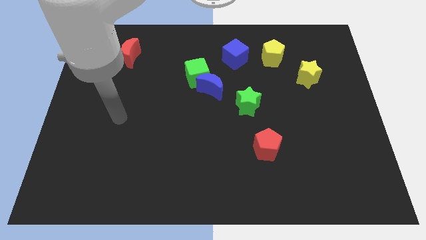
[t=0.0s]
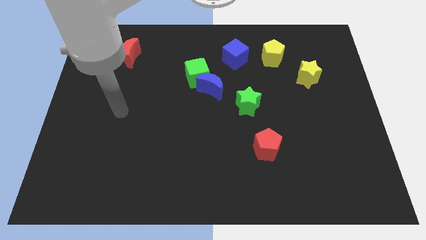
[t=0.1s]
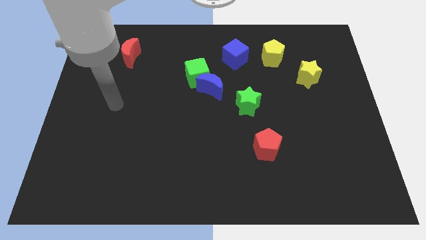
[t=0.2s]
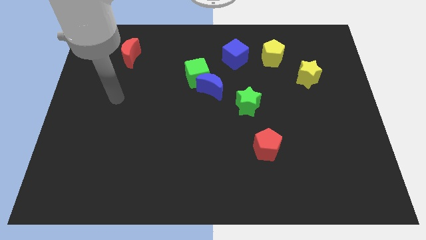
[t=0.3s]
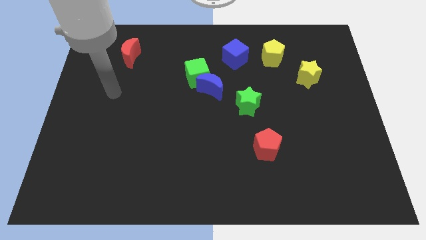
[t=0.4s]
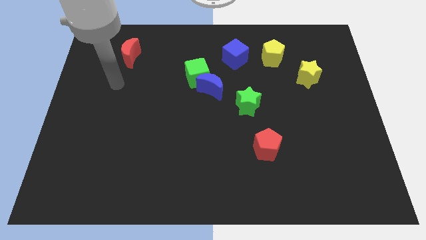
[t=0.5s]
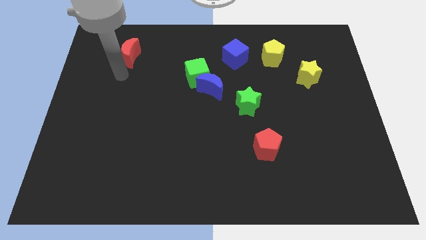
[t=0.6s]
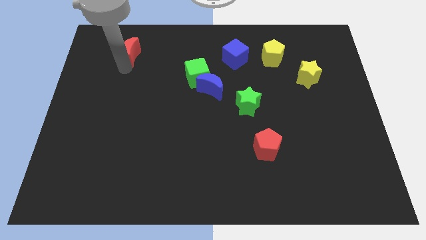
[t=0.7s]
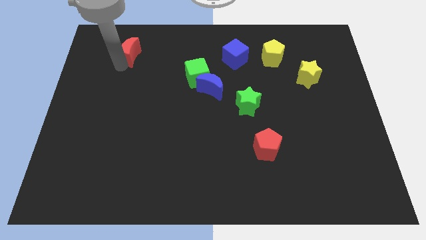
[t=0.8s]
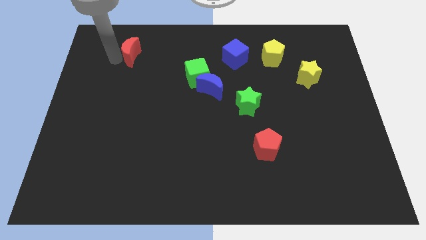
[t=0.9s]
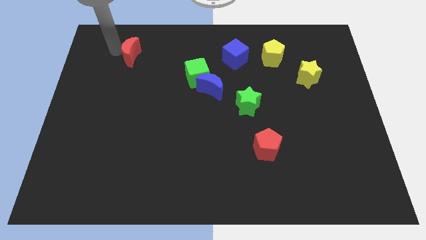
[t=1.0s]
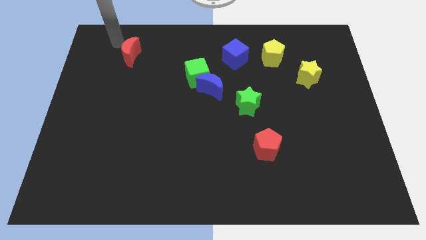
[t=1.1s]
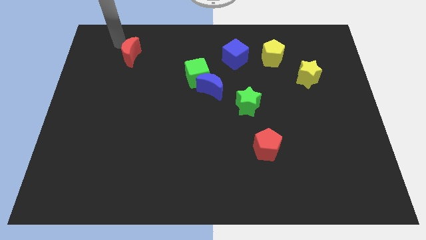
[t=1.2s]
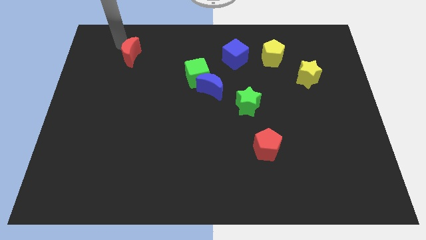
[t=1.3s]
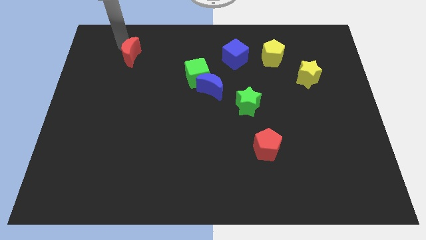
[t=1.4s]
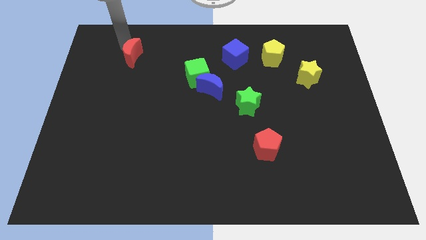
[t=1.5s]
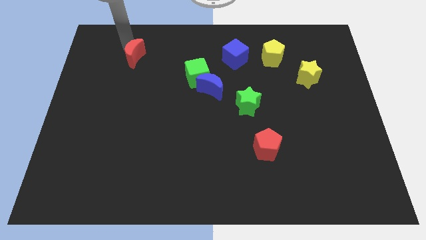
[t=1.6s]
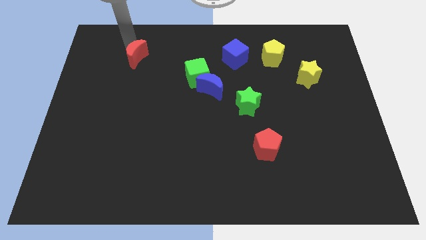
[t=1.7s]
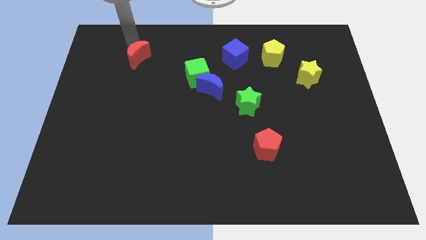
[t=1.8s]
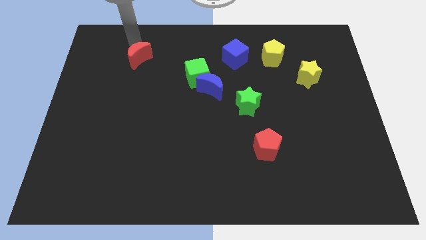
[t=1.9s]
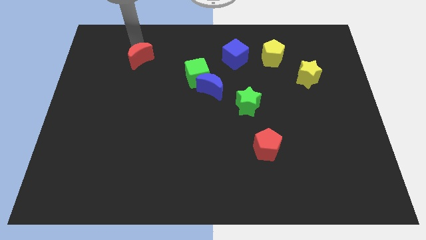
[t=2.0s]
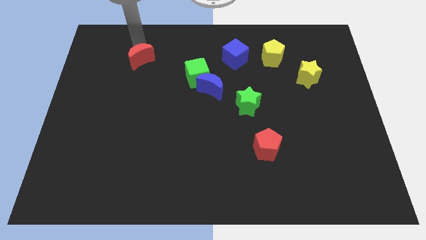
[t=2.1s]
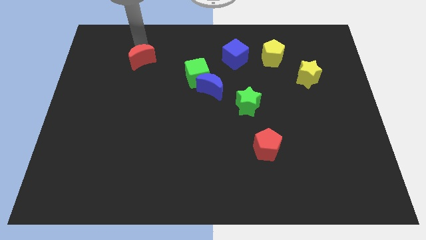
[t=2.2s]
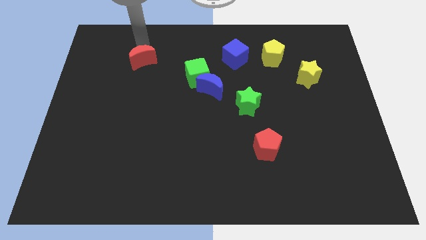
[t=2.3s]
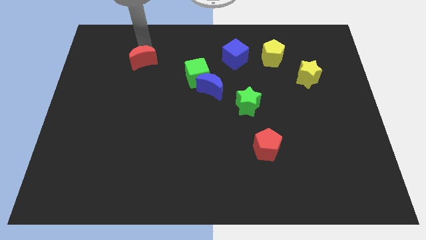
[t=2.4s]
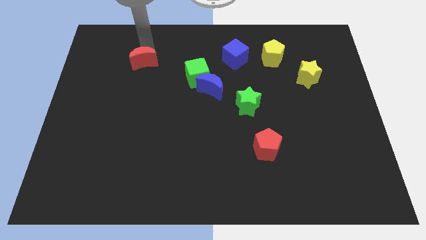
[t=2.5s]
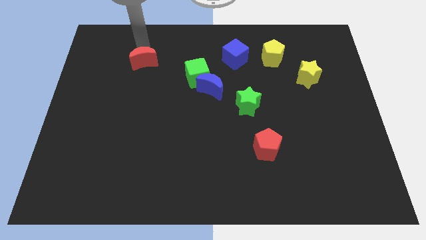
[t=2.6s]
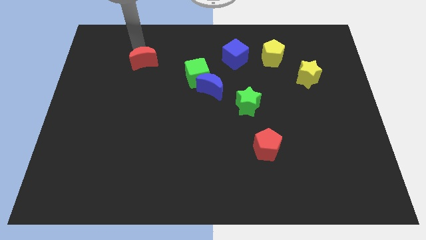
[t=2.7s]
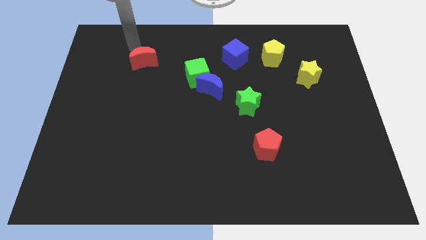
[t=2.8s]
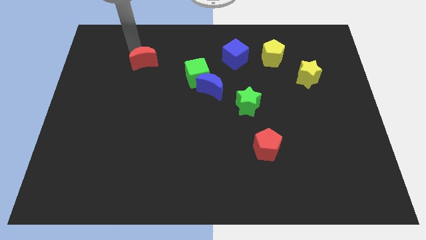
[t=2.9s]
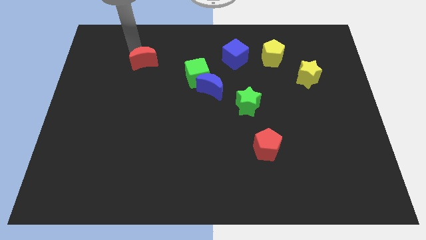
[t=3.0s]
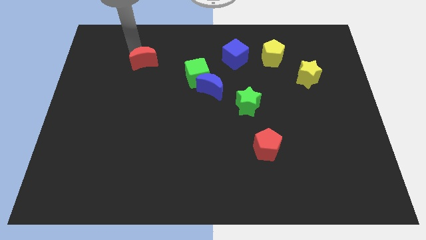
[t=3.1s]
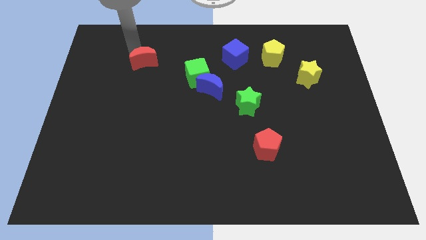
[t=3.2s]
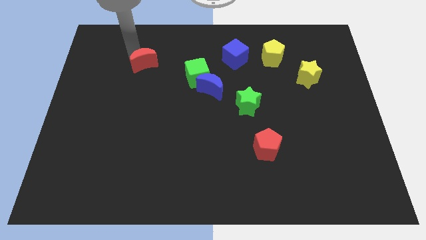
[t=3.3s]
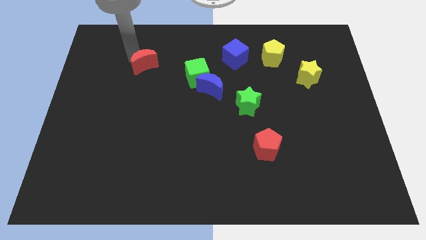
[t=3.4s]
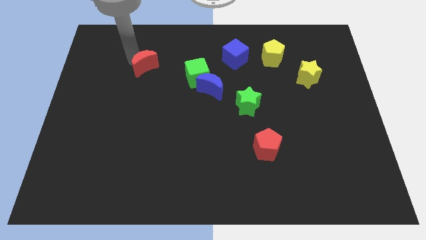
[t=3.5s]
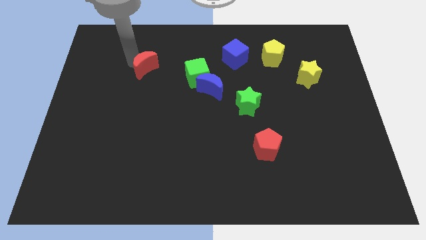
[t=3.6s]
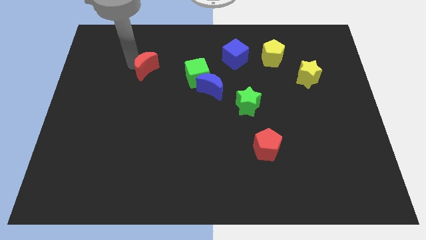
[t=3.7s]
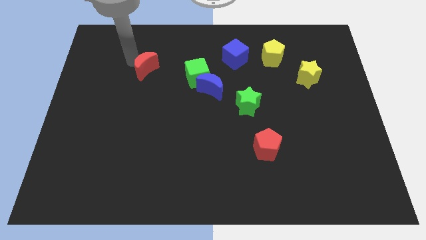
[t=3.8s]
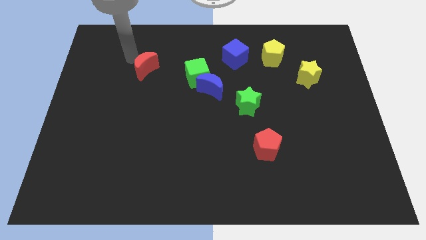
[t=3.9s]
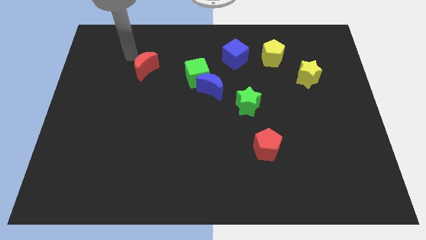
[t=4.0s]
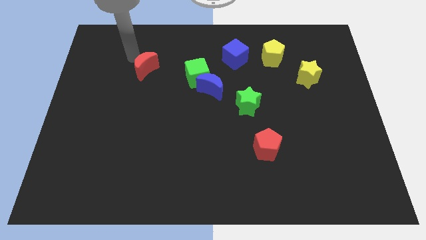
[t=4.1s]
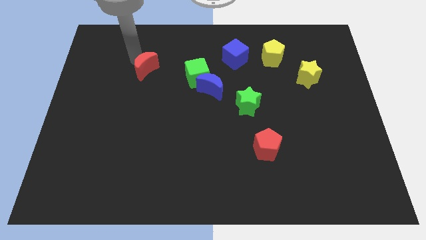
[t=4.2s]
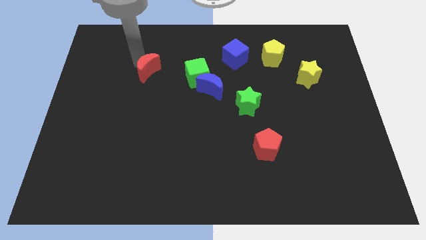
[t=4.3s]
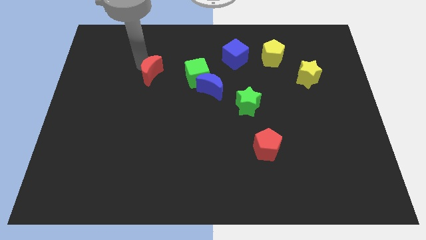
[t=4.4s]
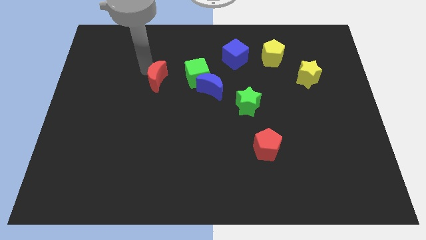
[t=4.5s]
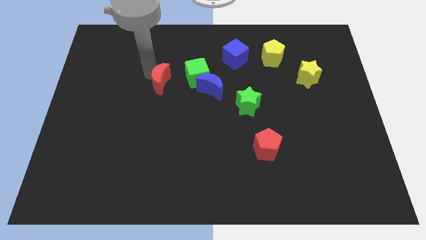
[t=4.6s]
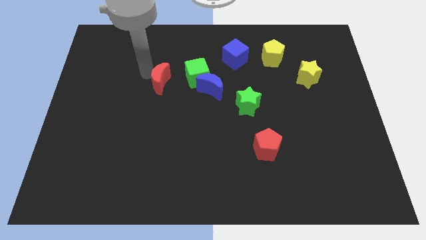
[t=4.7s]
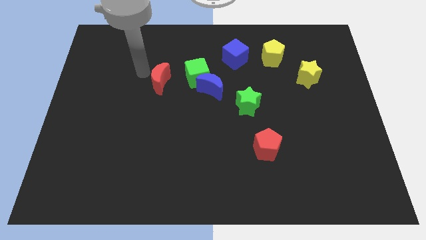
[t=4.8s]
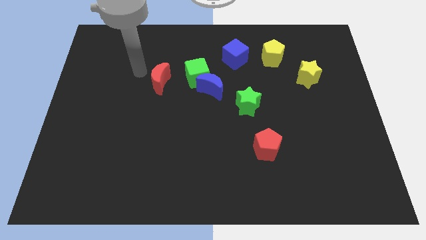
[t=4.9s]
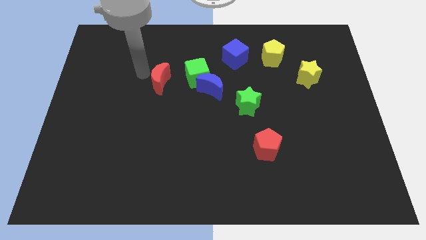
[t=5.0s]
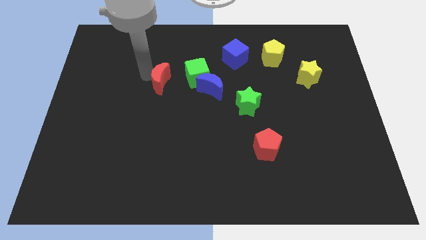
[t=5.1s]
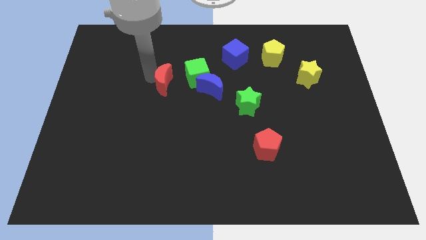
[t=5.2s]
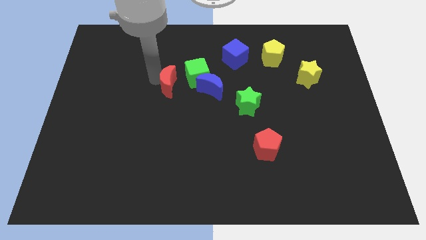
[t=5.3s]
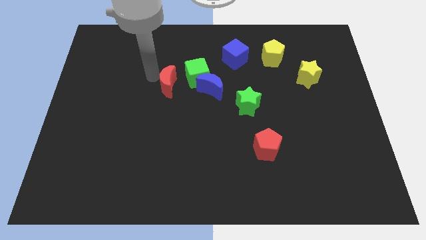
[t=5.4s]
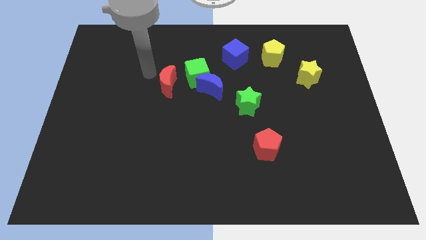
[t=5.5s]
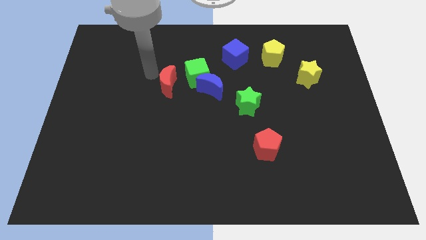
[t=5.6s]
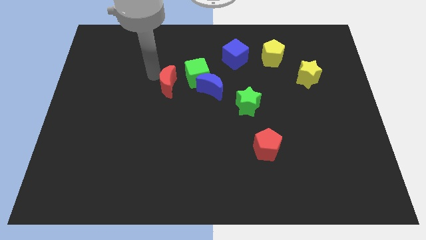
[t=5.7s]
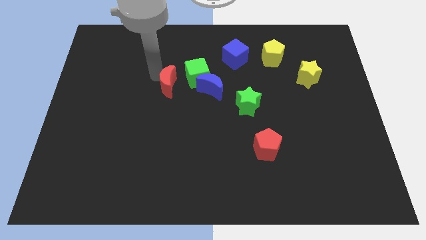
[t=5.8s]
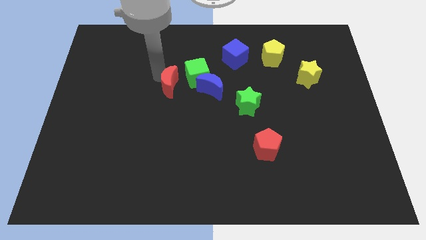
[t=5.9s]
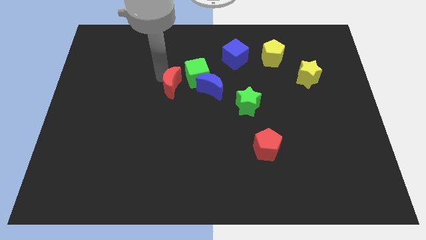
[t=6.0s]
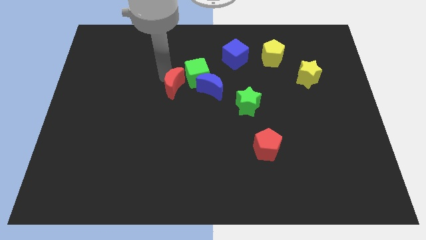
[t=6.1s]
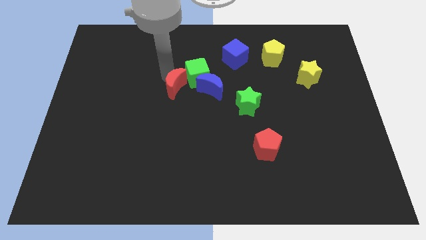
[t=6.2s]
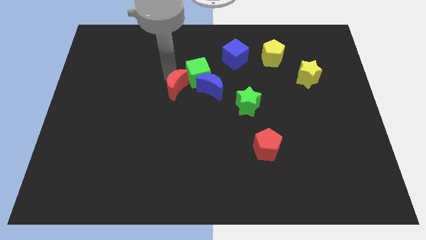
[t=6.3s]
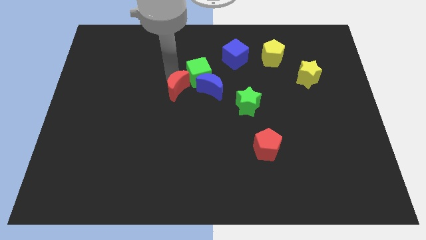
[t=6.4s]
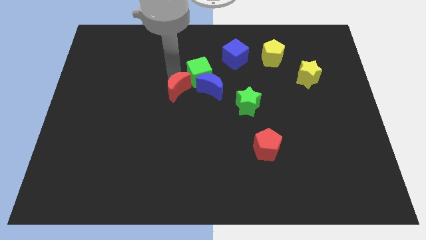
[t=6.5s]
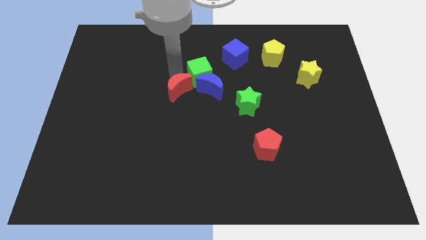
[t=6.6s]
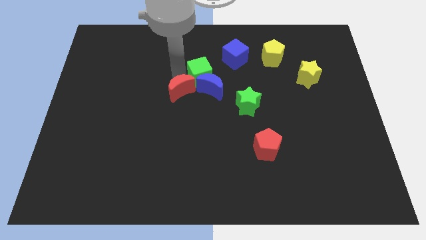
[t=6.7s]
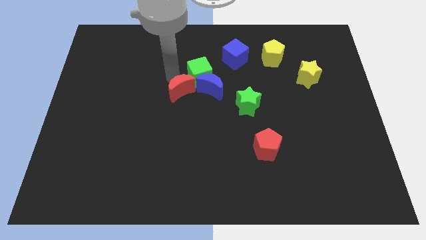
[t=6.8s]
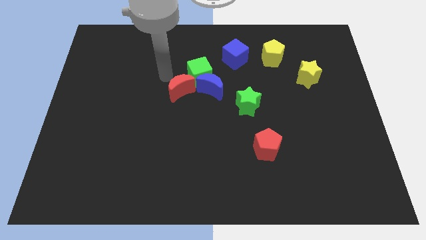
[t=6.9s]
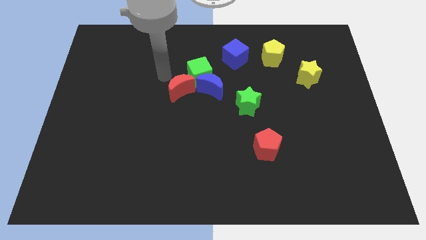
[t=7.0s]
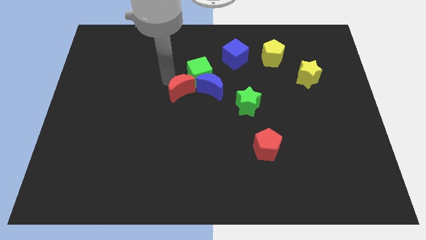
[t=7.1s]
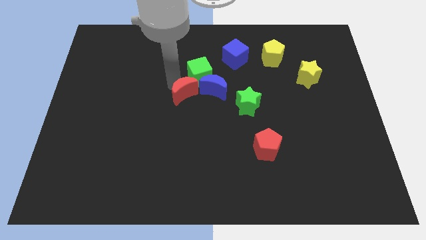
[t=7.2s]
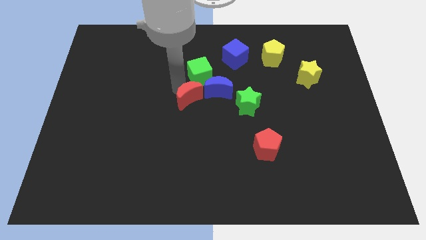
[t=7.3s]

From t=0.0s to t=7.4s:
slide the red moon diagonally down and right

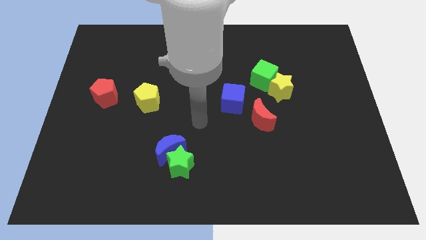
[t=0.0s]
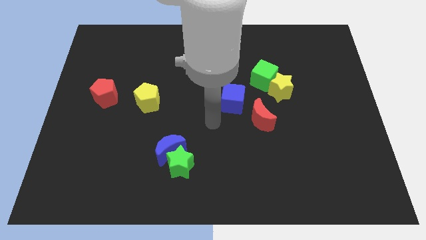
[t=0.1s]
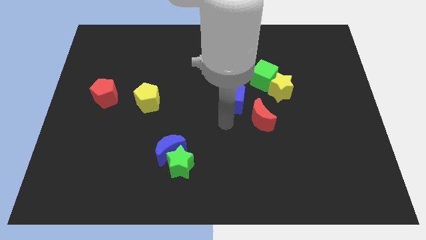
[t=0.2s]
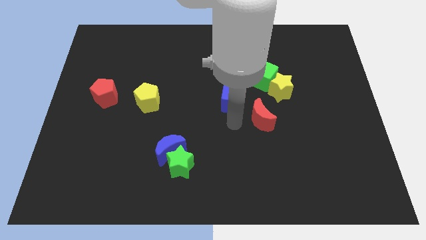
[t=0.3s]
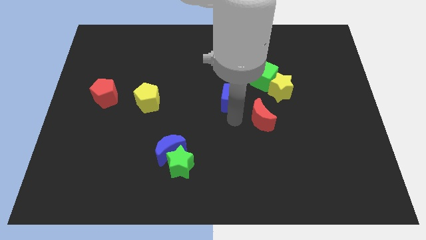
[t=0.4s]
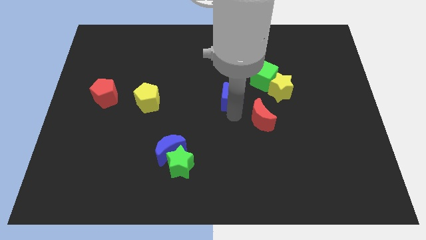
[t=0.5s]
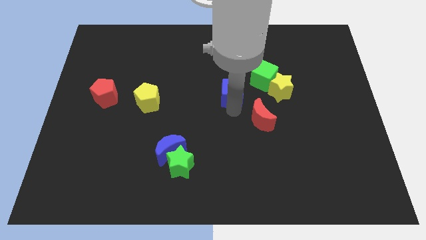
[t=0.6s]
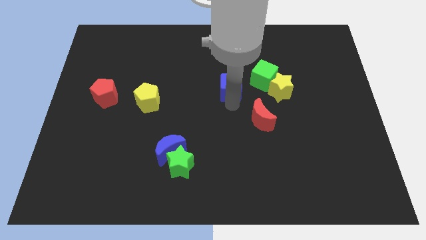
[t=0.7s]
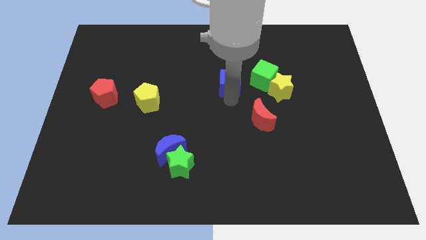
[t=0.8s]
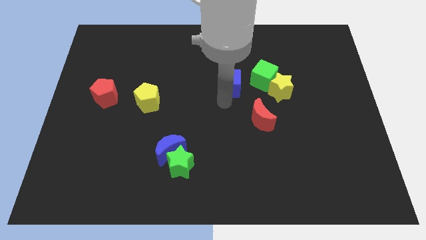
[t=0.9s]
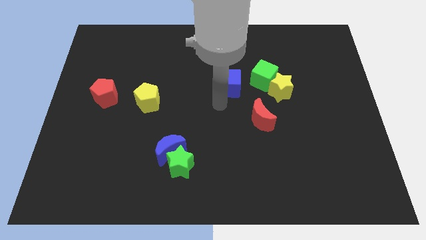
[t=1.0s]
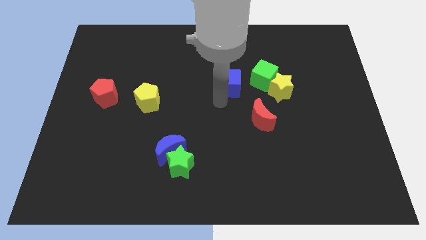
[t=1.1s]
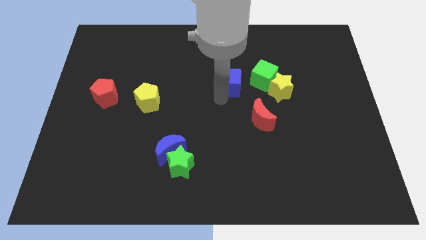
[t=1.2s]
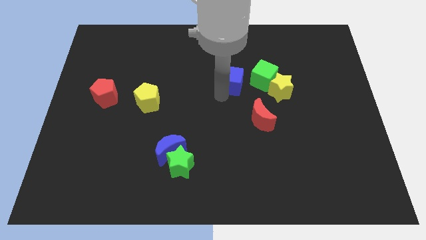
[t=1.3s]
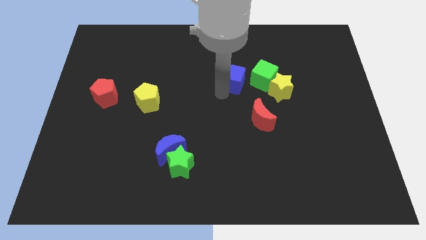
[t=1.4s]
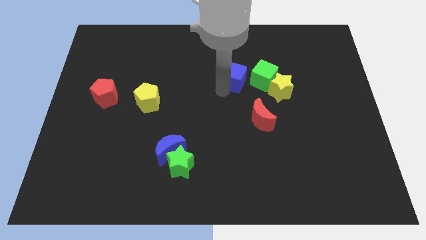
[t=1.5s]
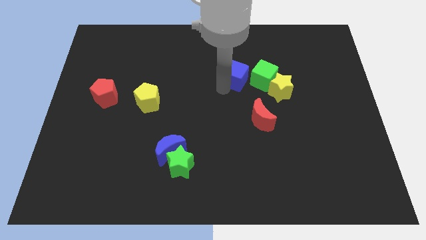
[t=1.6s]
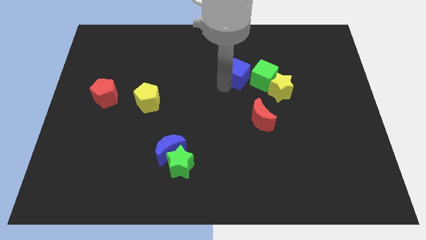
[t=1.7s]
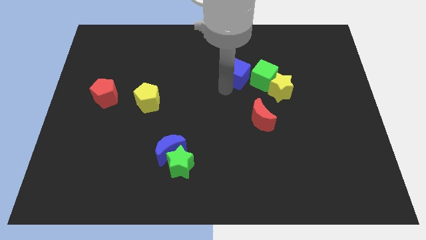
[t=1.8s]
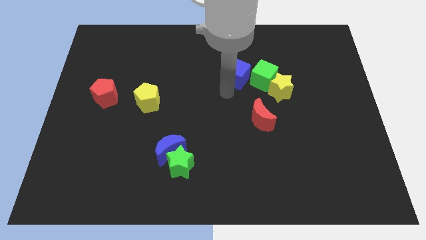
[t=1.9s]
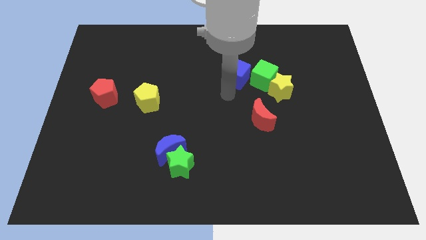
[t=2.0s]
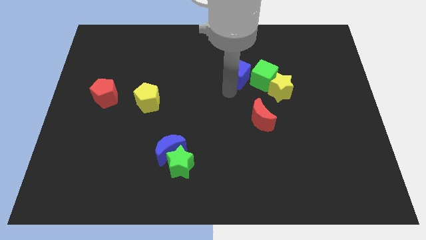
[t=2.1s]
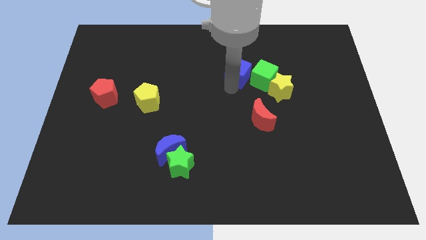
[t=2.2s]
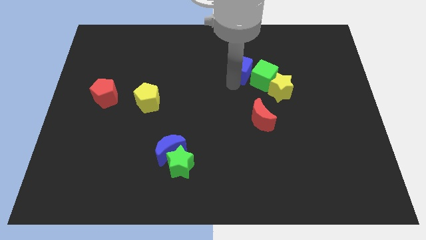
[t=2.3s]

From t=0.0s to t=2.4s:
push the blue cube a little bit upwards and right diagonally
